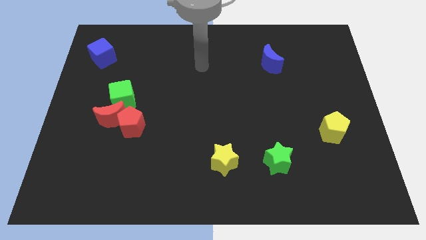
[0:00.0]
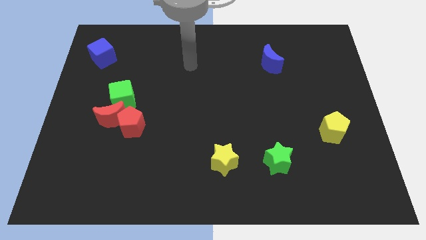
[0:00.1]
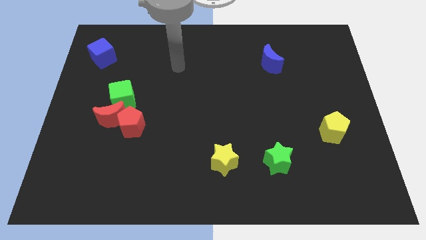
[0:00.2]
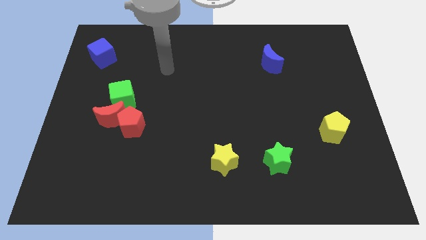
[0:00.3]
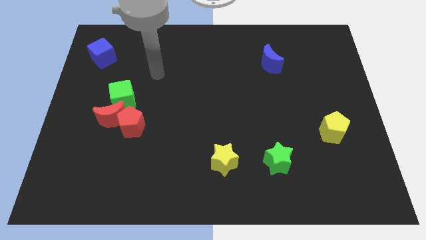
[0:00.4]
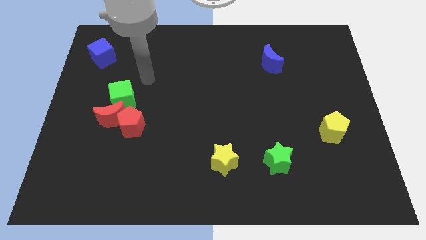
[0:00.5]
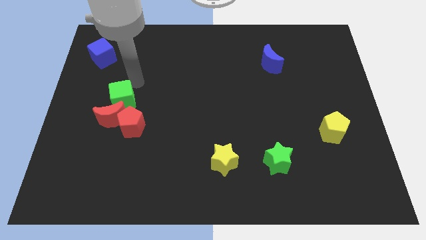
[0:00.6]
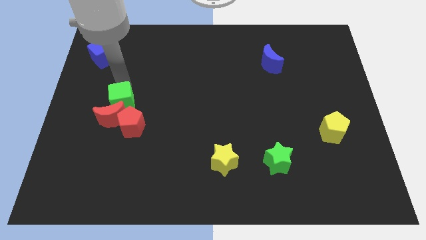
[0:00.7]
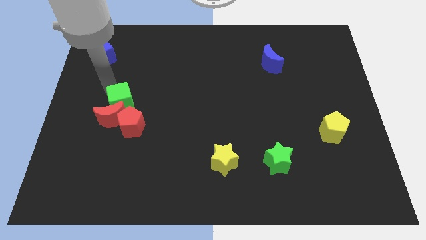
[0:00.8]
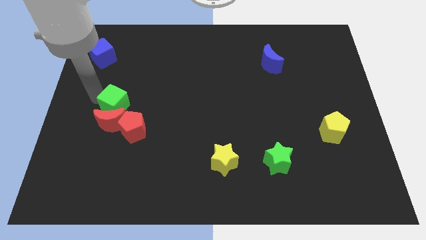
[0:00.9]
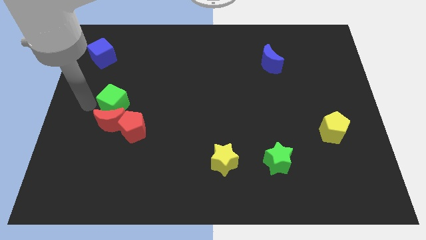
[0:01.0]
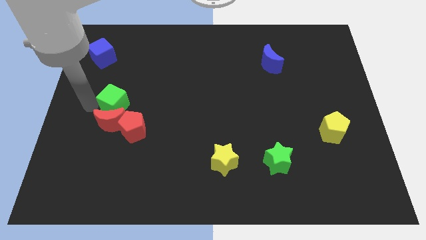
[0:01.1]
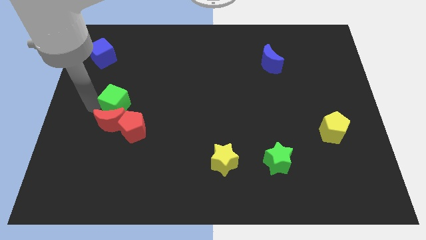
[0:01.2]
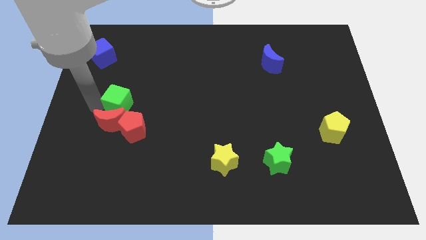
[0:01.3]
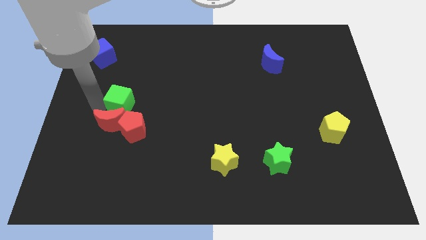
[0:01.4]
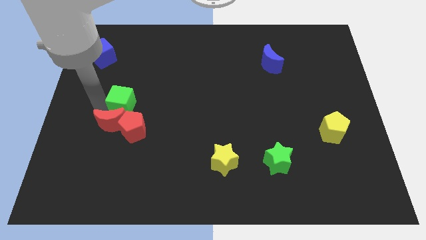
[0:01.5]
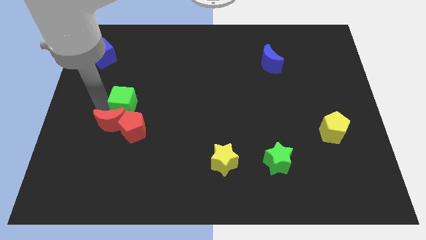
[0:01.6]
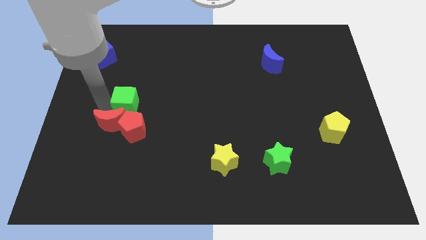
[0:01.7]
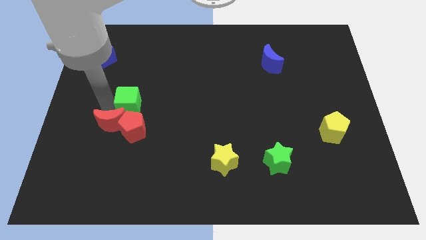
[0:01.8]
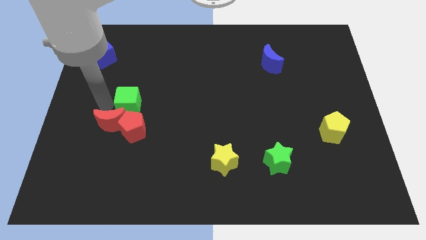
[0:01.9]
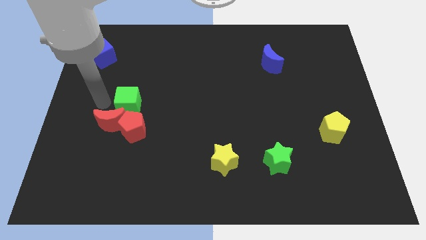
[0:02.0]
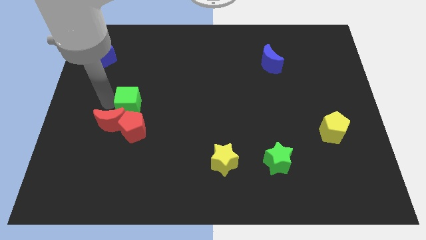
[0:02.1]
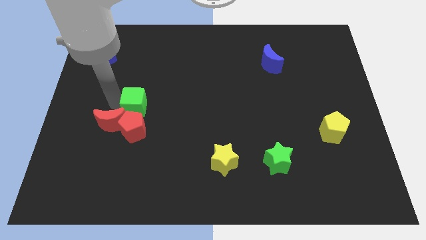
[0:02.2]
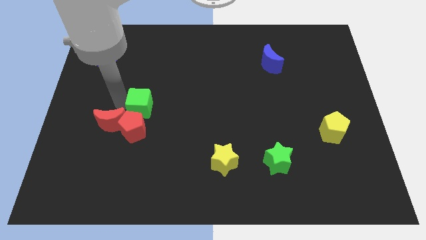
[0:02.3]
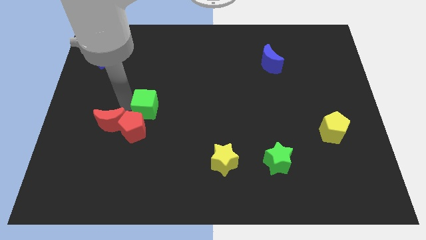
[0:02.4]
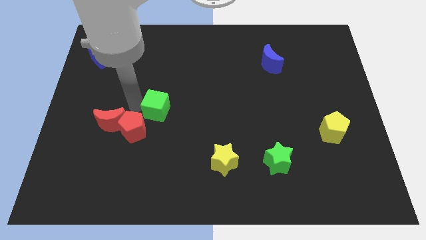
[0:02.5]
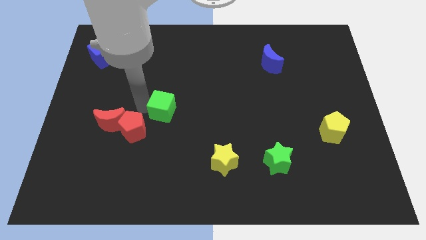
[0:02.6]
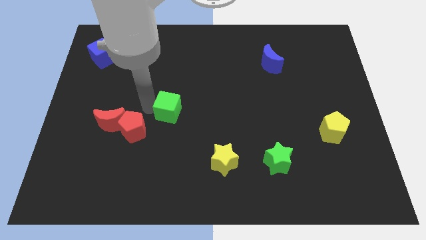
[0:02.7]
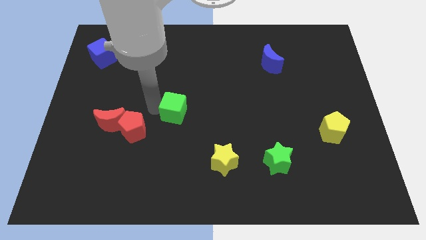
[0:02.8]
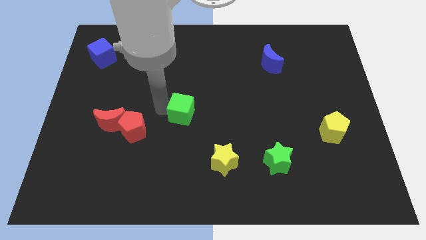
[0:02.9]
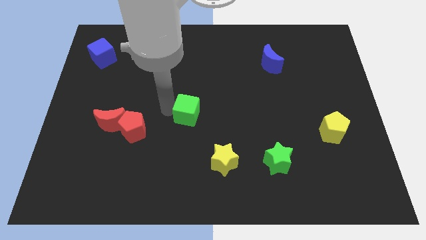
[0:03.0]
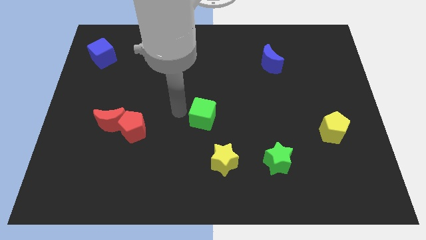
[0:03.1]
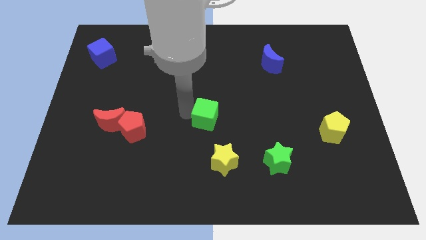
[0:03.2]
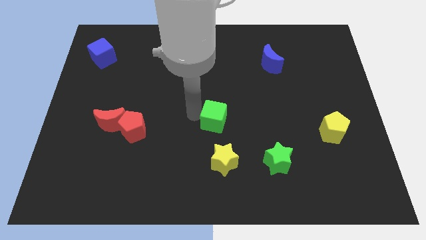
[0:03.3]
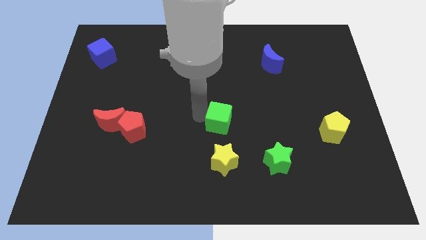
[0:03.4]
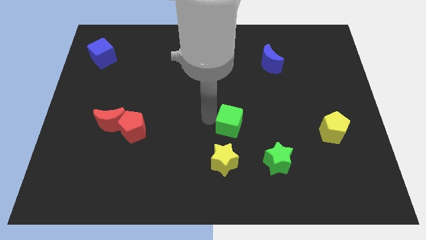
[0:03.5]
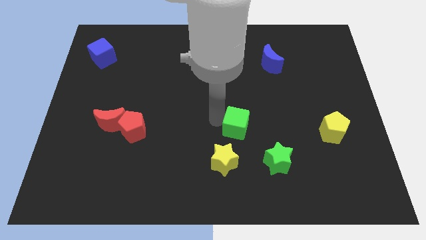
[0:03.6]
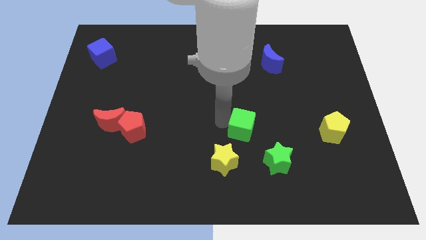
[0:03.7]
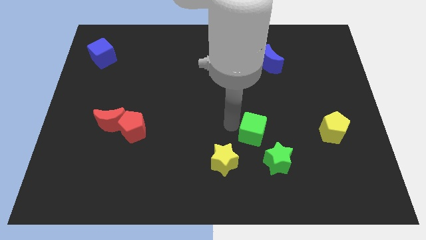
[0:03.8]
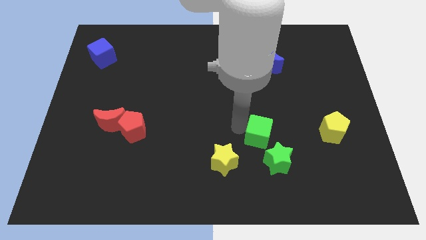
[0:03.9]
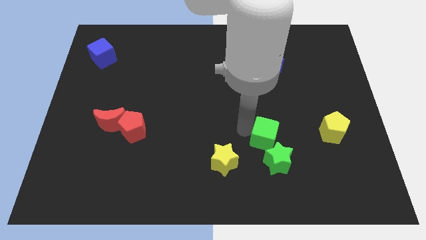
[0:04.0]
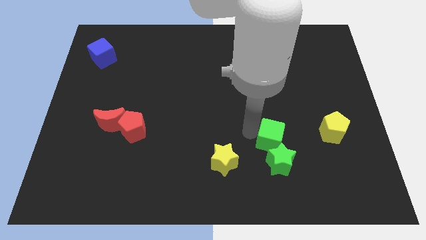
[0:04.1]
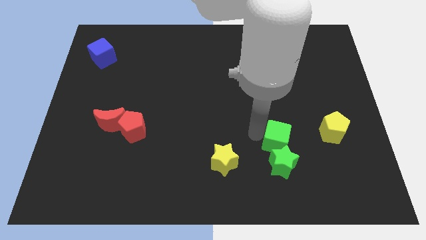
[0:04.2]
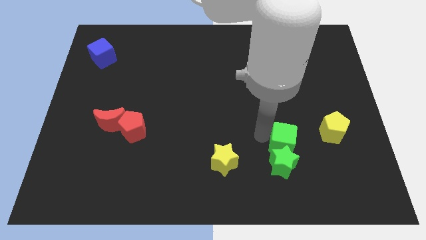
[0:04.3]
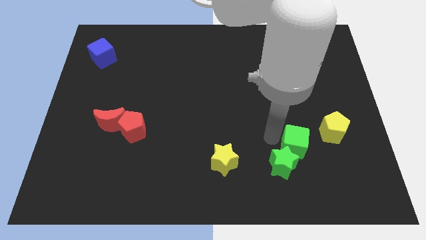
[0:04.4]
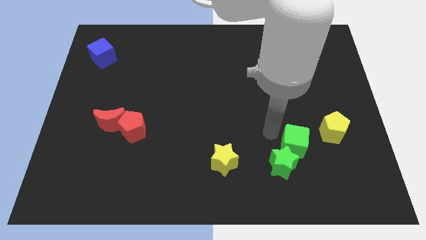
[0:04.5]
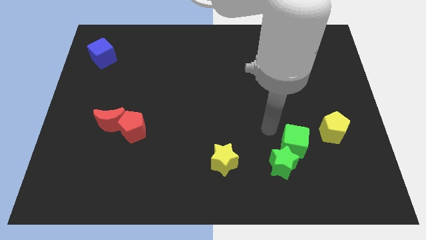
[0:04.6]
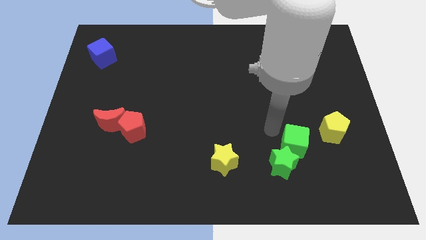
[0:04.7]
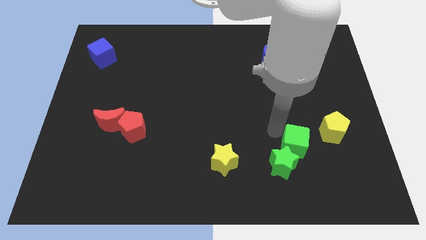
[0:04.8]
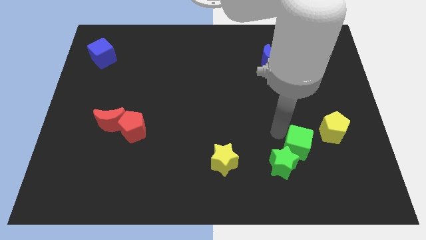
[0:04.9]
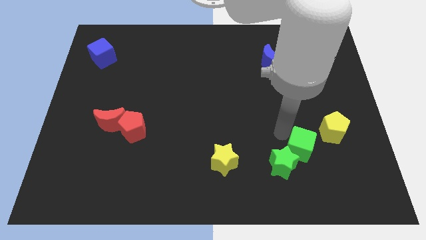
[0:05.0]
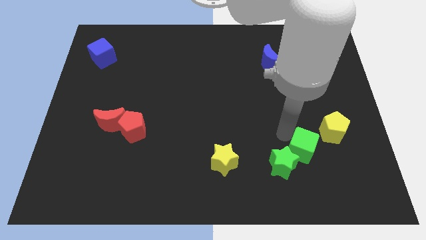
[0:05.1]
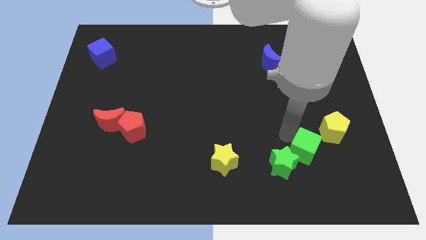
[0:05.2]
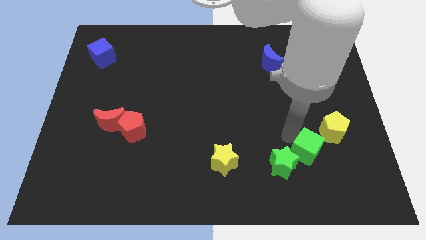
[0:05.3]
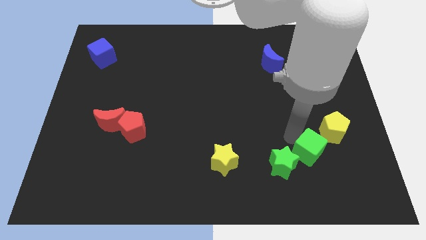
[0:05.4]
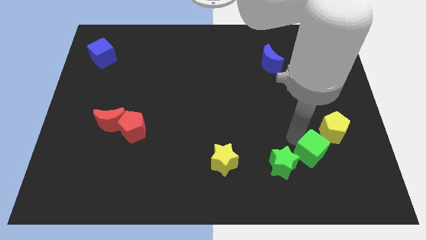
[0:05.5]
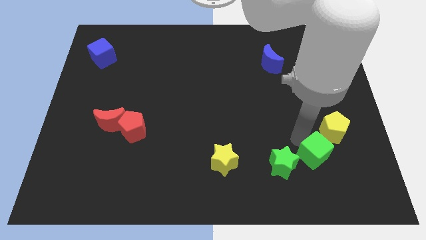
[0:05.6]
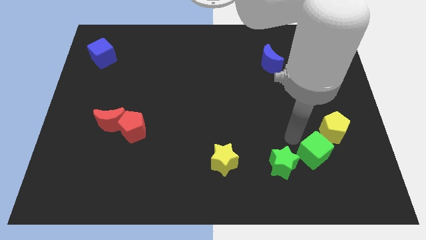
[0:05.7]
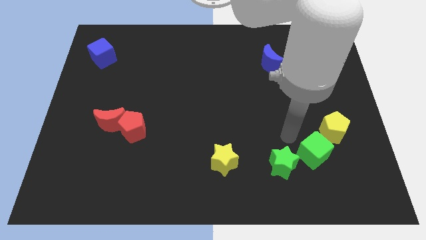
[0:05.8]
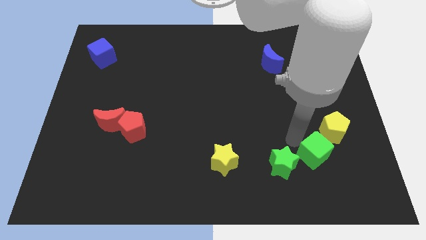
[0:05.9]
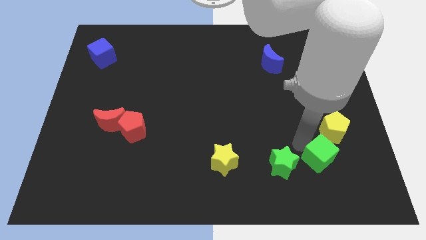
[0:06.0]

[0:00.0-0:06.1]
put the green cube to the bottom of the yellow pentagon

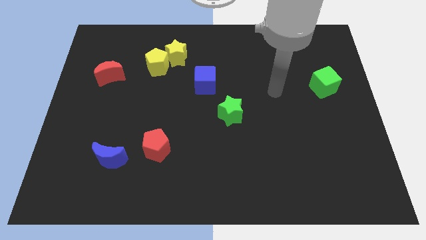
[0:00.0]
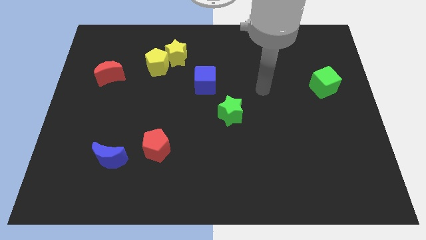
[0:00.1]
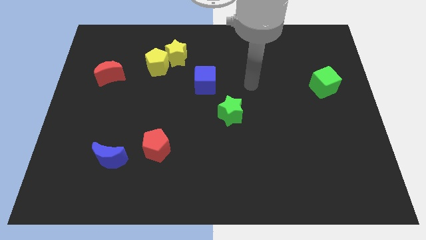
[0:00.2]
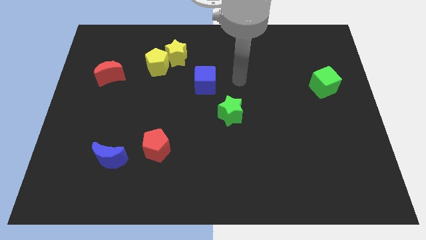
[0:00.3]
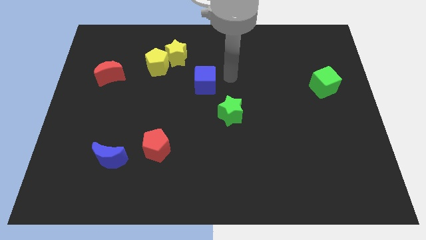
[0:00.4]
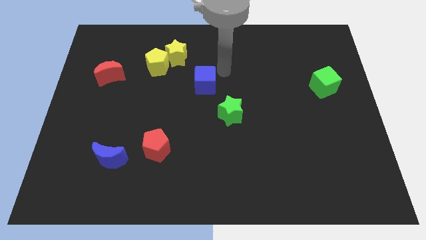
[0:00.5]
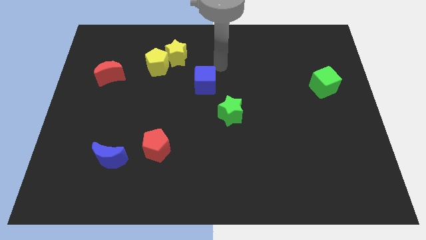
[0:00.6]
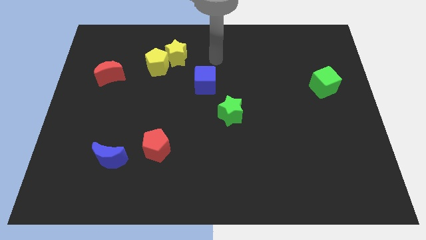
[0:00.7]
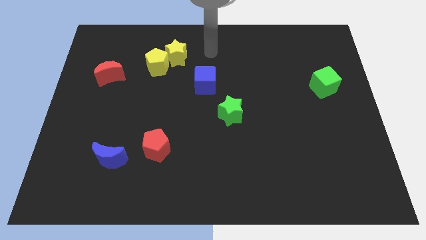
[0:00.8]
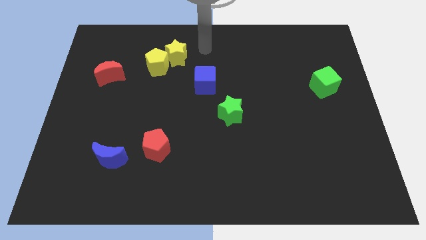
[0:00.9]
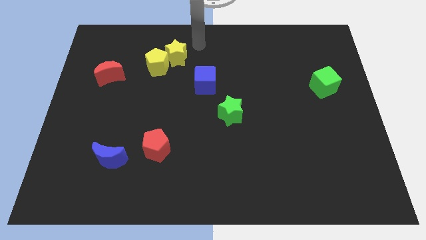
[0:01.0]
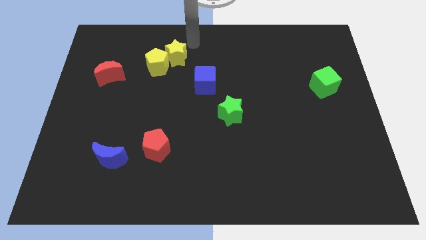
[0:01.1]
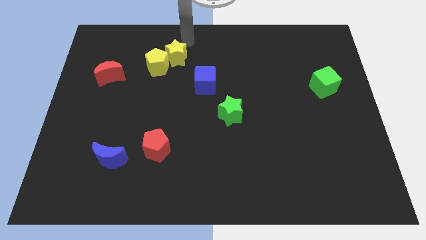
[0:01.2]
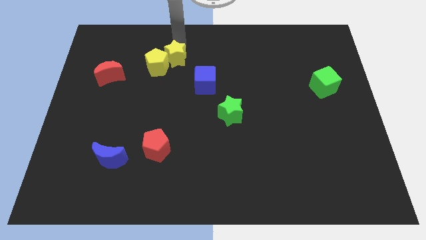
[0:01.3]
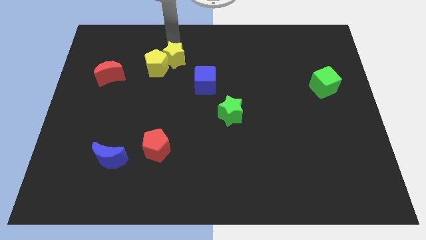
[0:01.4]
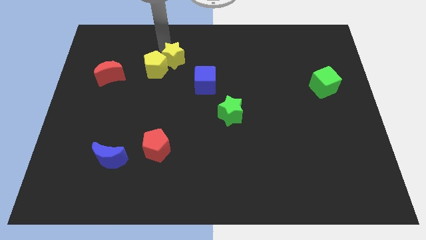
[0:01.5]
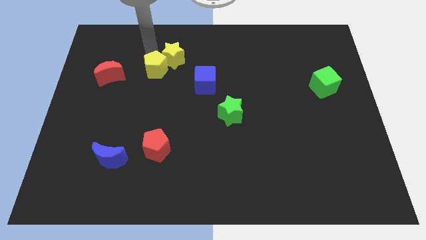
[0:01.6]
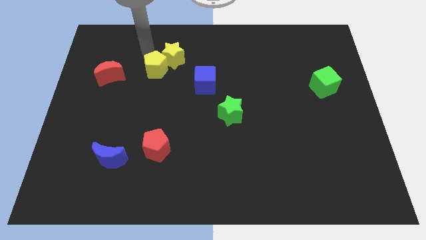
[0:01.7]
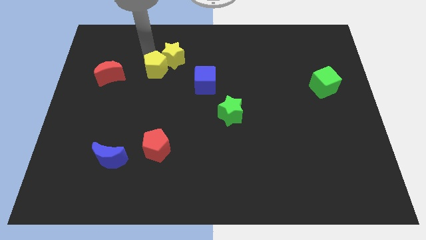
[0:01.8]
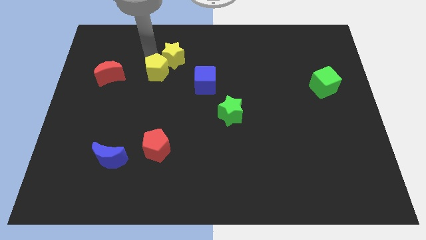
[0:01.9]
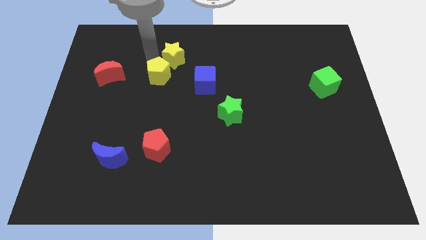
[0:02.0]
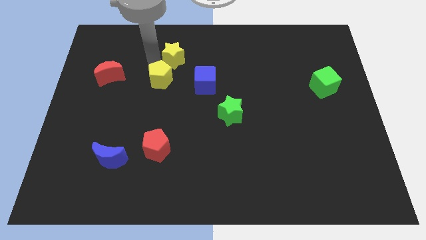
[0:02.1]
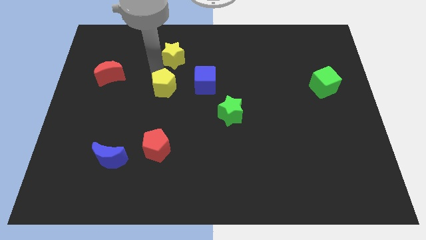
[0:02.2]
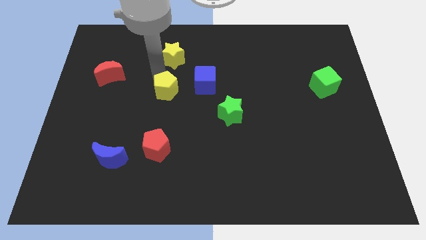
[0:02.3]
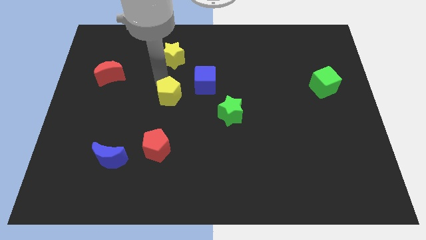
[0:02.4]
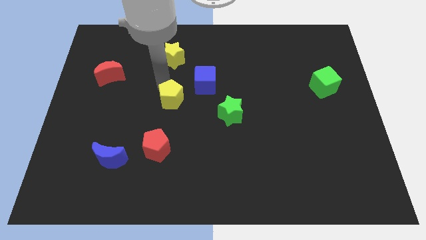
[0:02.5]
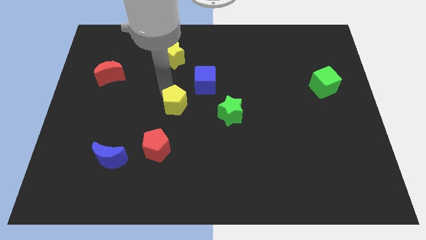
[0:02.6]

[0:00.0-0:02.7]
slide the yellow pentagon to the left side of the green star
